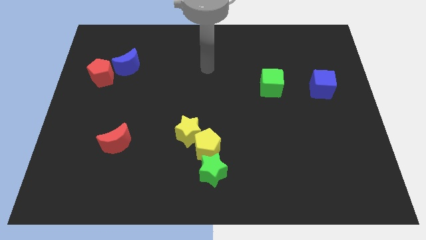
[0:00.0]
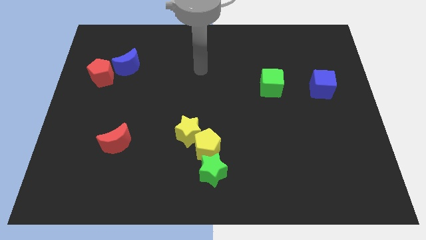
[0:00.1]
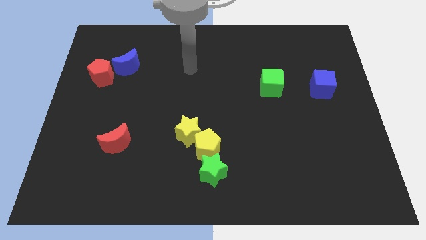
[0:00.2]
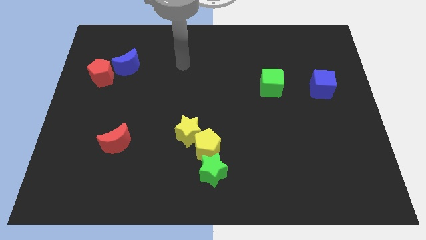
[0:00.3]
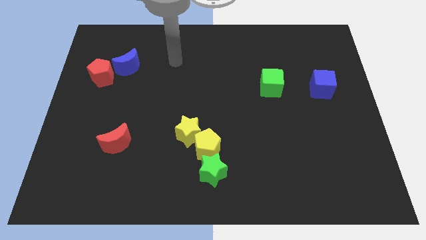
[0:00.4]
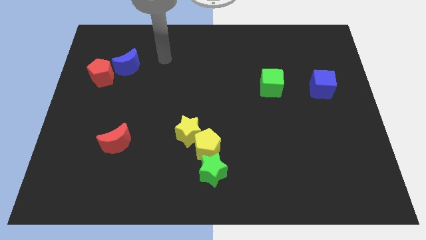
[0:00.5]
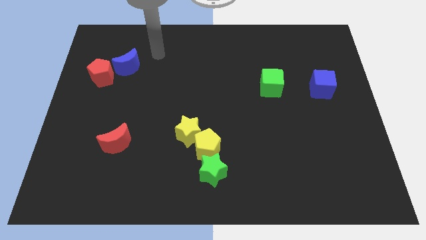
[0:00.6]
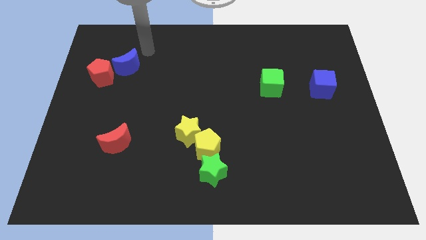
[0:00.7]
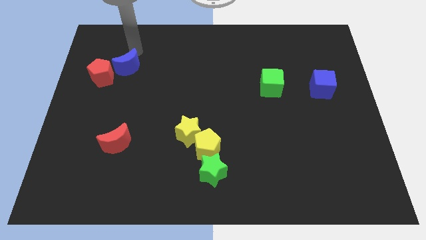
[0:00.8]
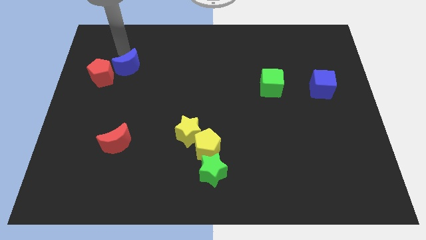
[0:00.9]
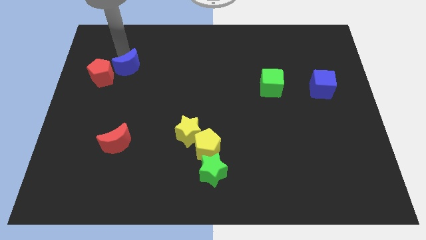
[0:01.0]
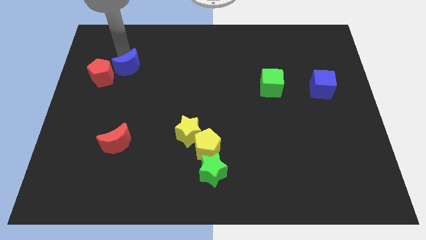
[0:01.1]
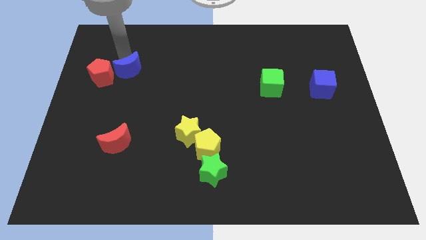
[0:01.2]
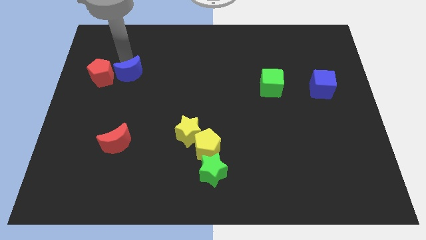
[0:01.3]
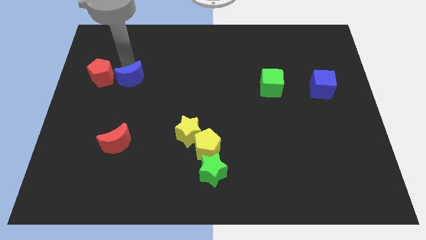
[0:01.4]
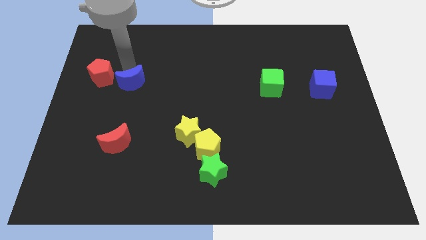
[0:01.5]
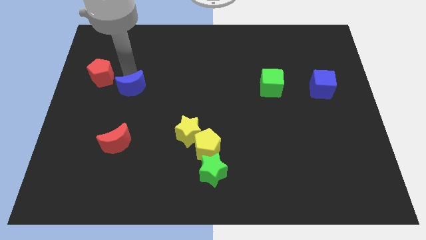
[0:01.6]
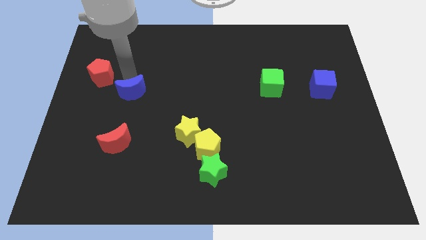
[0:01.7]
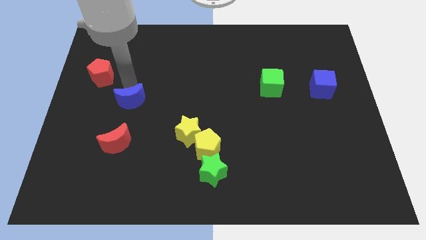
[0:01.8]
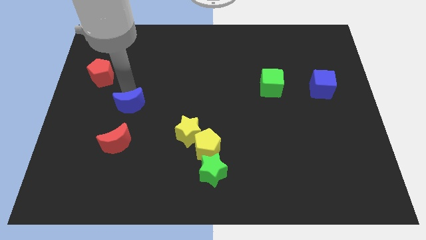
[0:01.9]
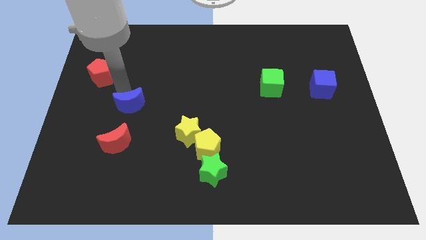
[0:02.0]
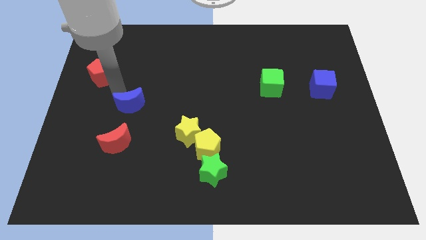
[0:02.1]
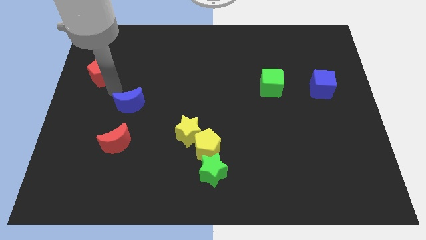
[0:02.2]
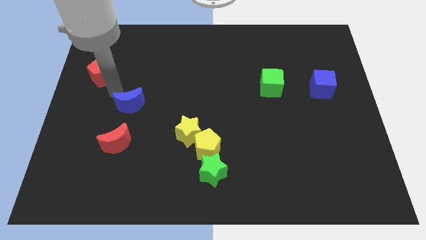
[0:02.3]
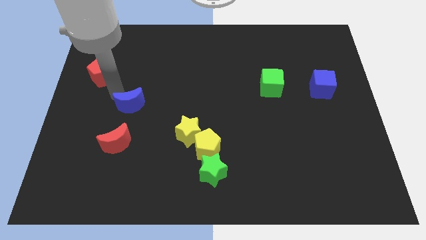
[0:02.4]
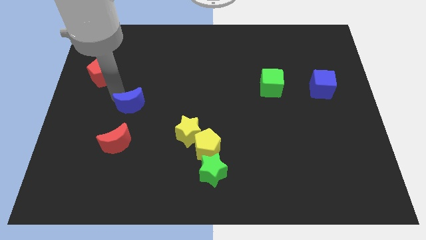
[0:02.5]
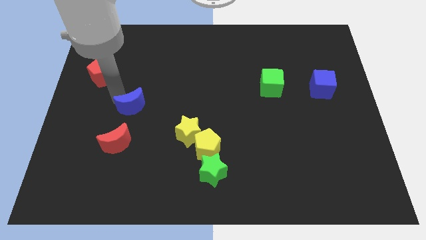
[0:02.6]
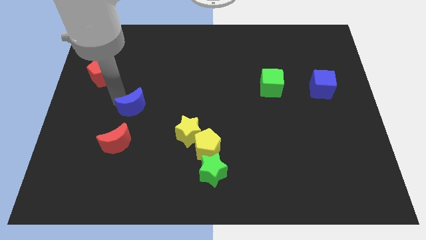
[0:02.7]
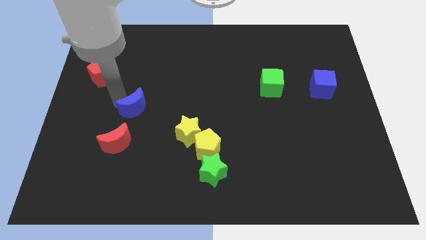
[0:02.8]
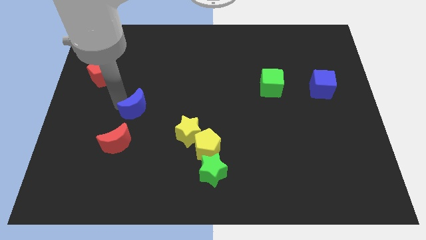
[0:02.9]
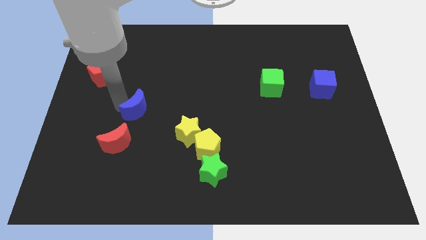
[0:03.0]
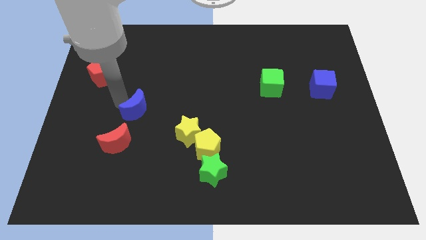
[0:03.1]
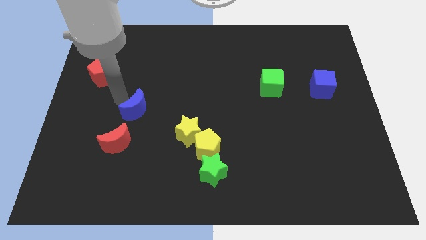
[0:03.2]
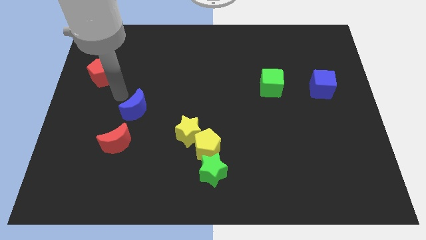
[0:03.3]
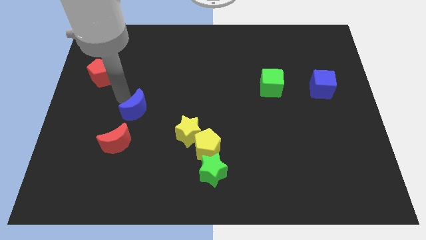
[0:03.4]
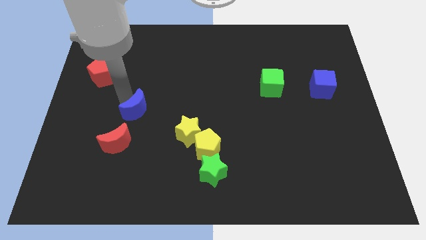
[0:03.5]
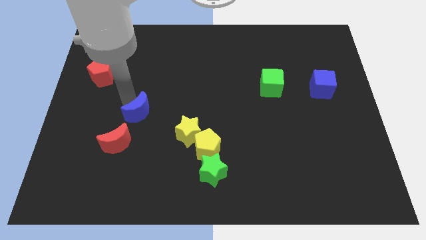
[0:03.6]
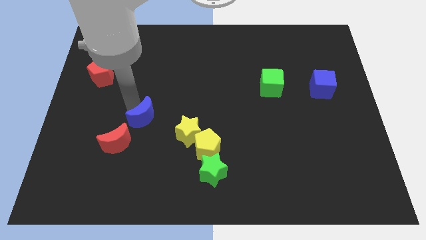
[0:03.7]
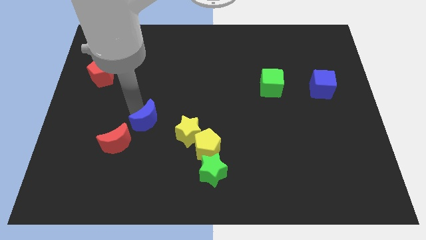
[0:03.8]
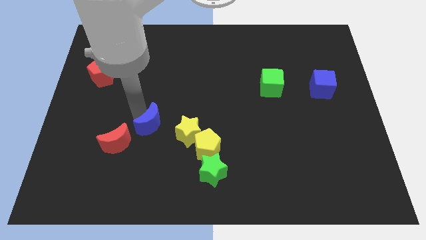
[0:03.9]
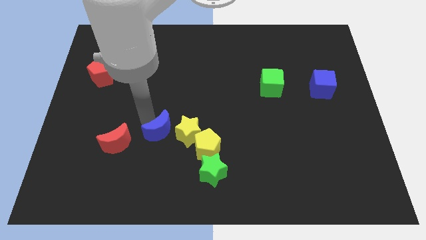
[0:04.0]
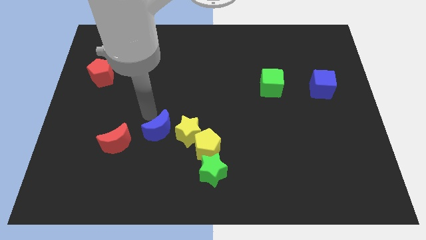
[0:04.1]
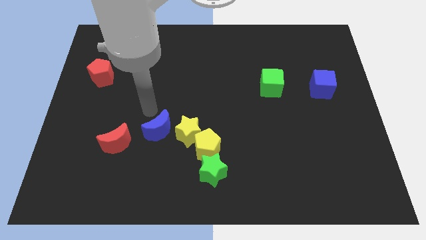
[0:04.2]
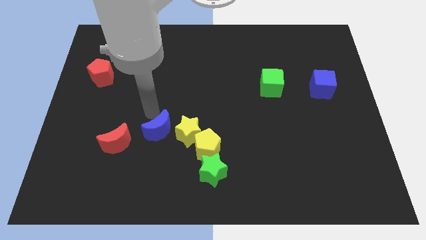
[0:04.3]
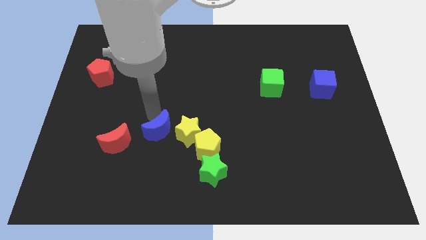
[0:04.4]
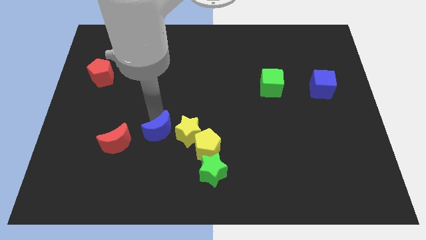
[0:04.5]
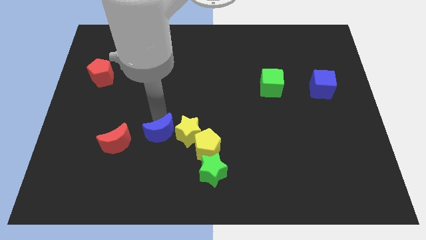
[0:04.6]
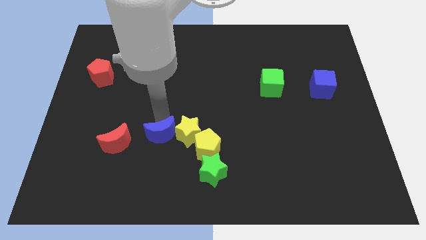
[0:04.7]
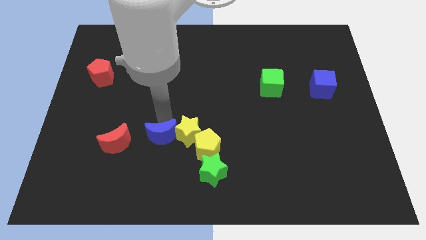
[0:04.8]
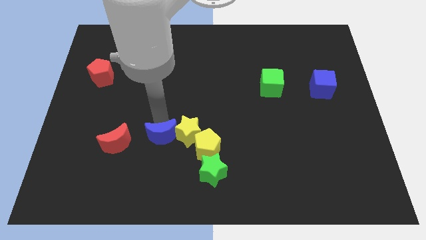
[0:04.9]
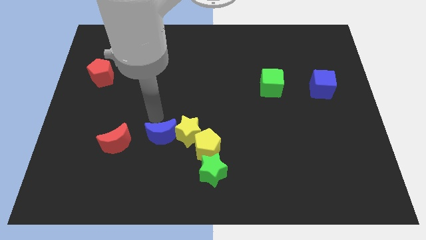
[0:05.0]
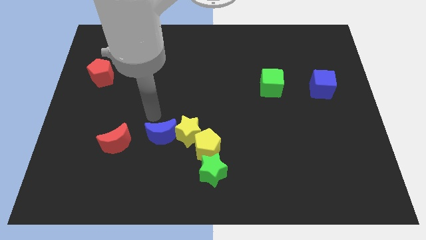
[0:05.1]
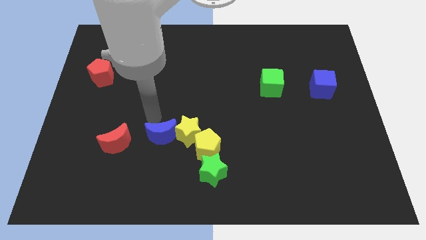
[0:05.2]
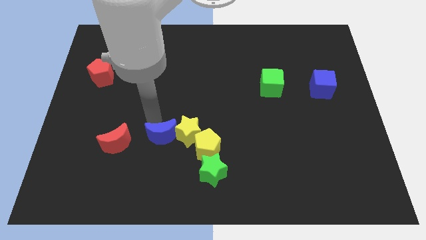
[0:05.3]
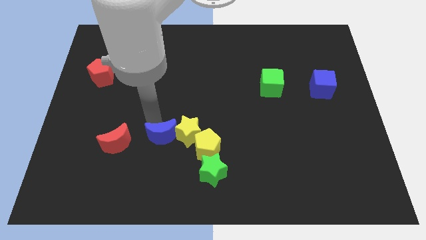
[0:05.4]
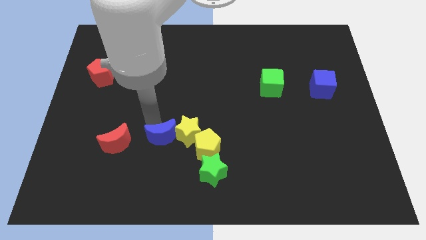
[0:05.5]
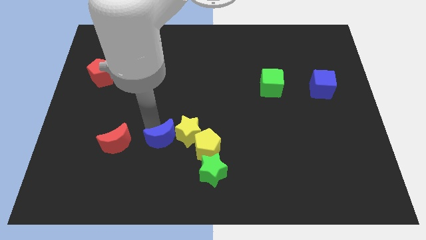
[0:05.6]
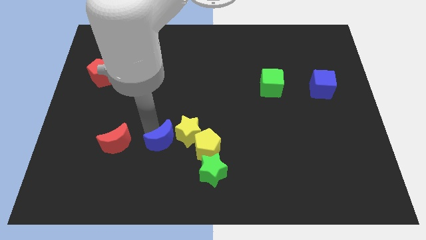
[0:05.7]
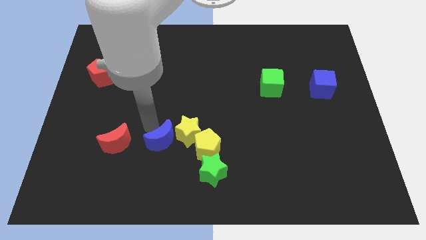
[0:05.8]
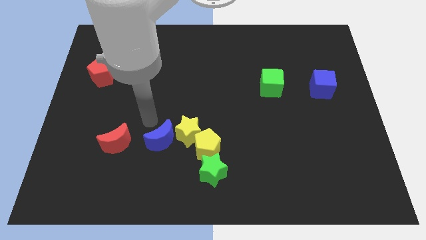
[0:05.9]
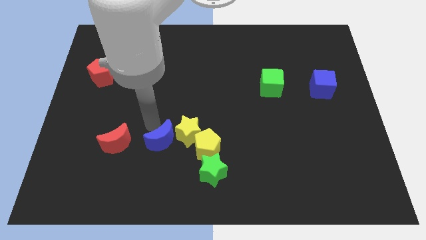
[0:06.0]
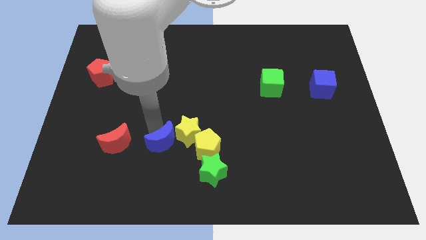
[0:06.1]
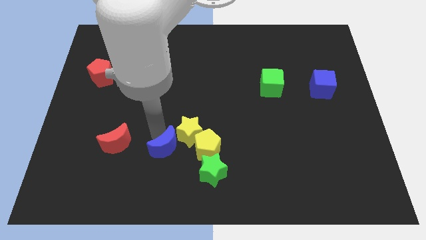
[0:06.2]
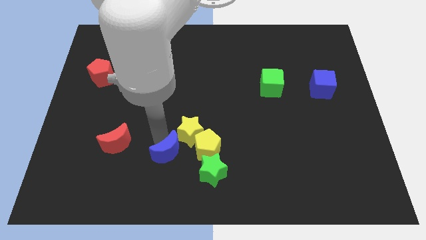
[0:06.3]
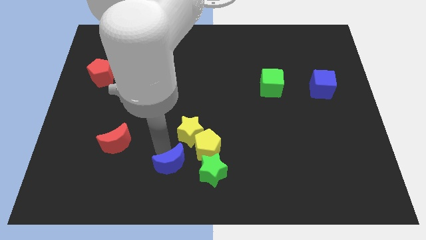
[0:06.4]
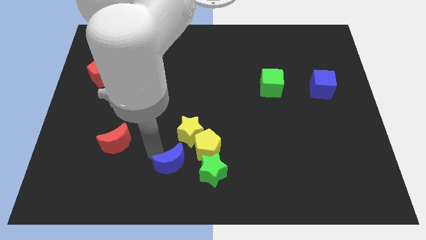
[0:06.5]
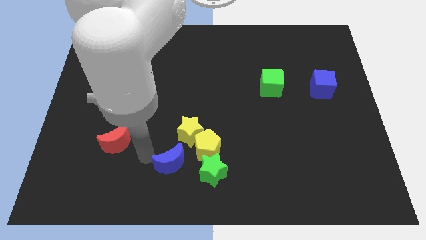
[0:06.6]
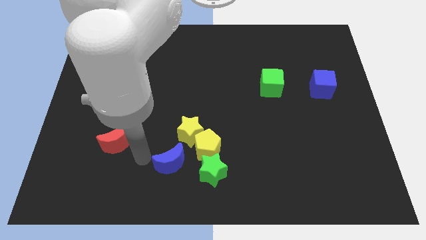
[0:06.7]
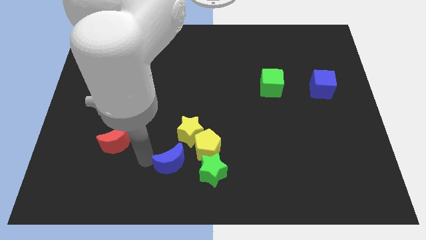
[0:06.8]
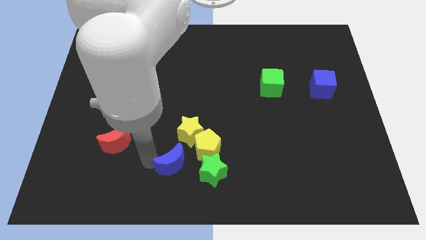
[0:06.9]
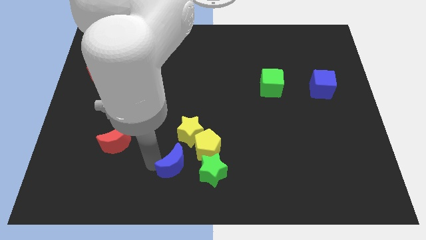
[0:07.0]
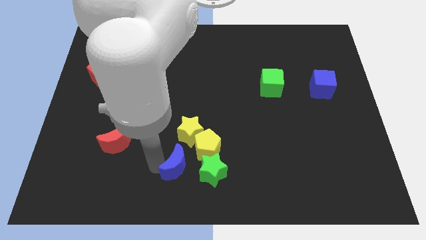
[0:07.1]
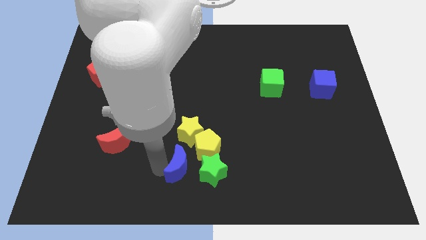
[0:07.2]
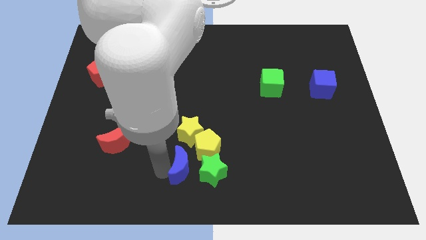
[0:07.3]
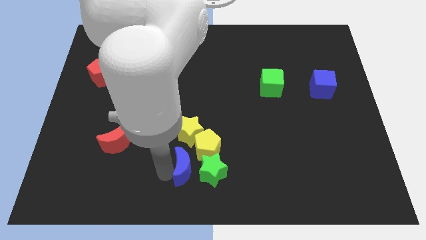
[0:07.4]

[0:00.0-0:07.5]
put the blue moon close to the green star
